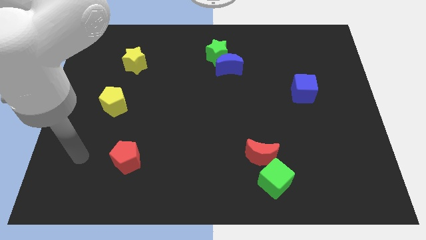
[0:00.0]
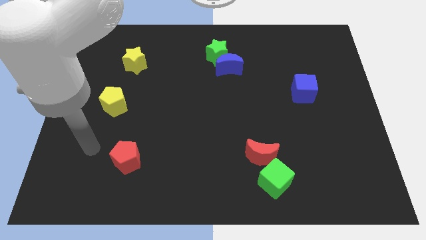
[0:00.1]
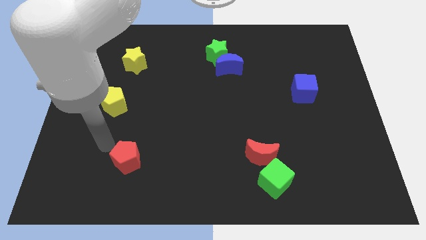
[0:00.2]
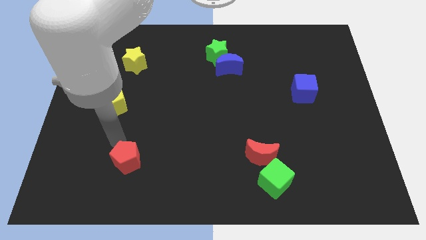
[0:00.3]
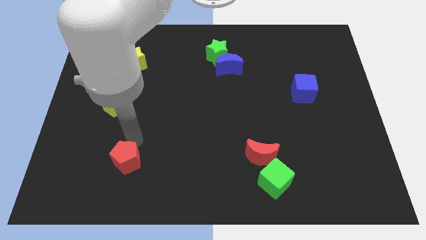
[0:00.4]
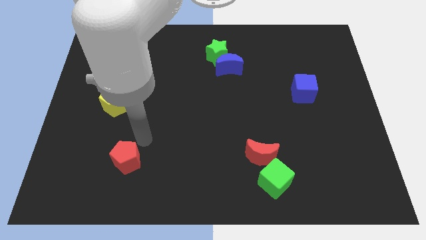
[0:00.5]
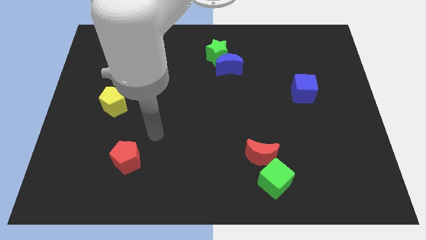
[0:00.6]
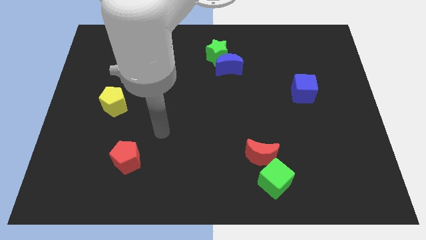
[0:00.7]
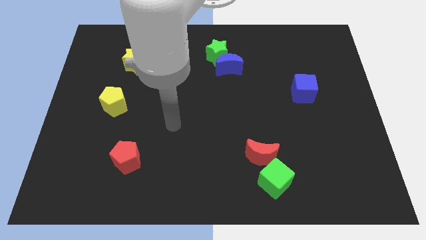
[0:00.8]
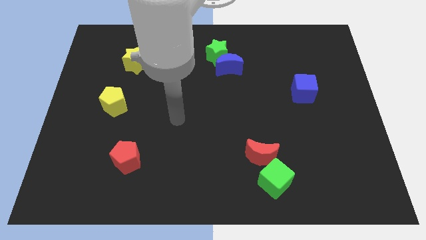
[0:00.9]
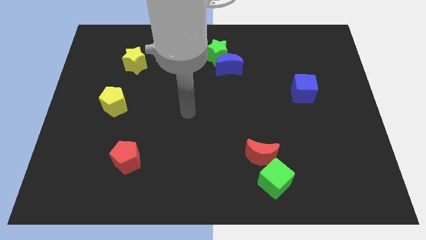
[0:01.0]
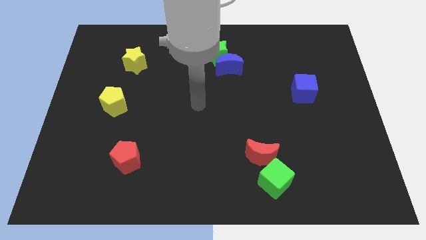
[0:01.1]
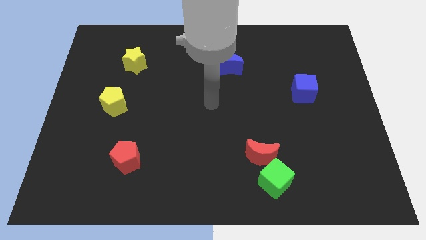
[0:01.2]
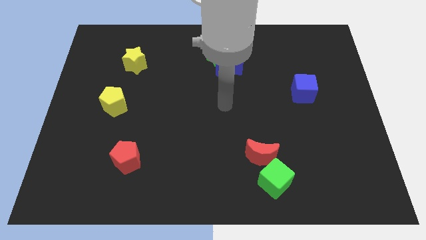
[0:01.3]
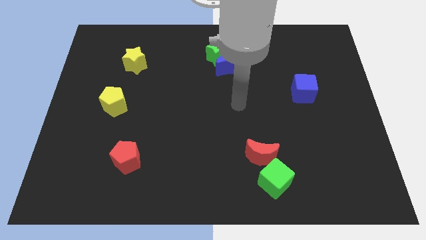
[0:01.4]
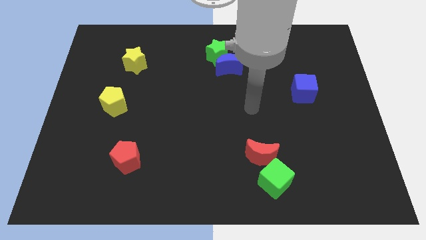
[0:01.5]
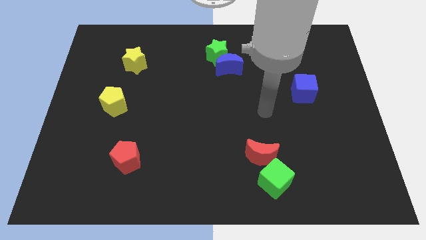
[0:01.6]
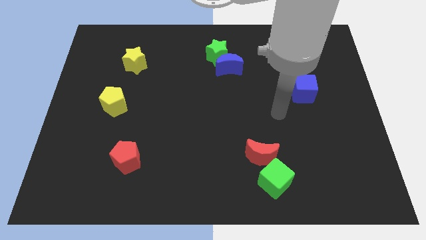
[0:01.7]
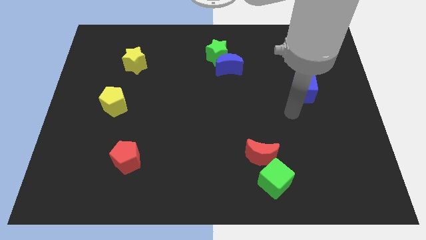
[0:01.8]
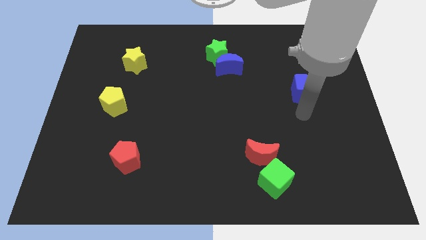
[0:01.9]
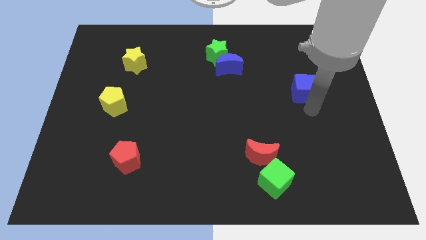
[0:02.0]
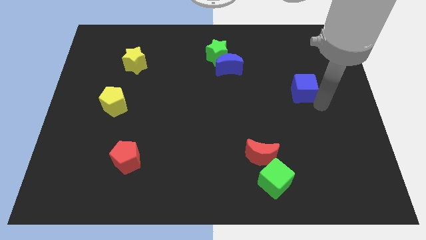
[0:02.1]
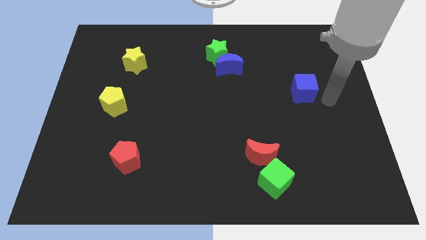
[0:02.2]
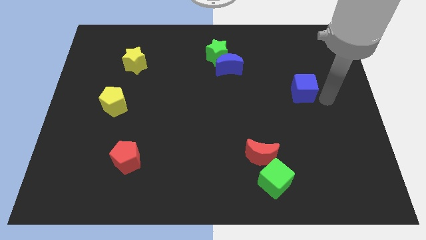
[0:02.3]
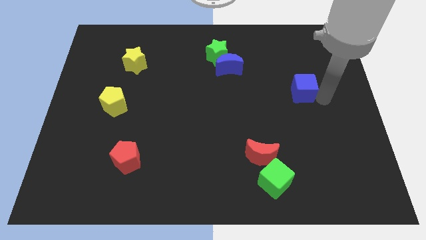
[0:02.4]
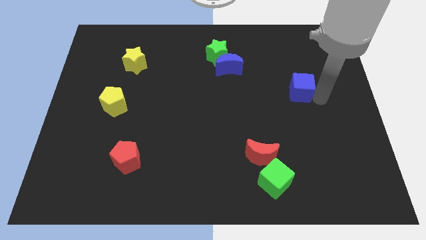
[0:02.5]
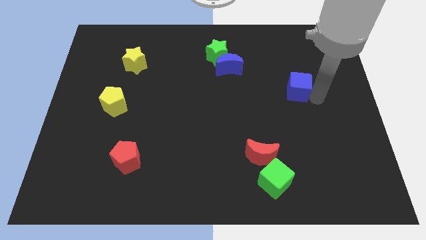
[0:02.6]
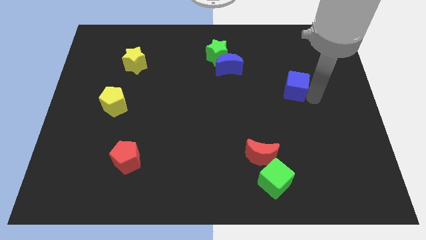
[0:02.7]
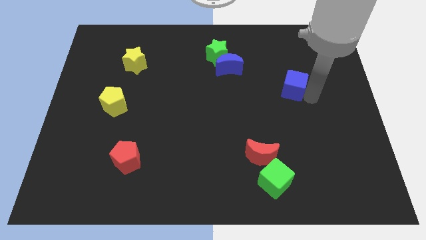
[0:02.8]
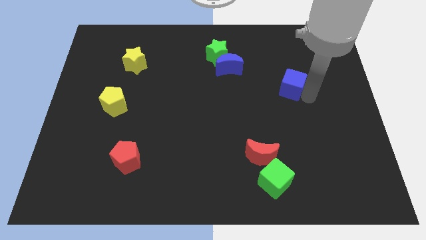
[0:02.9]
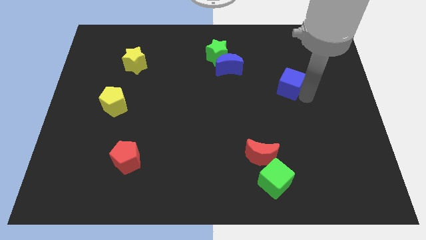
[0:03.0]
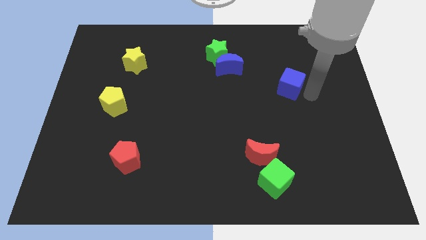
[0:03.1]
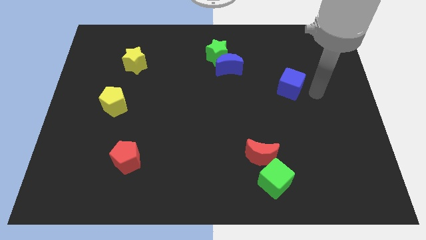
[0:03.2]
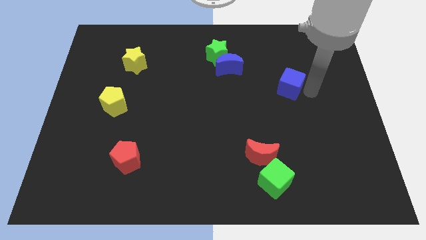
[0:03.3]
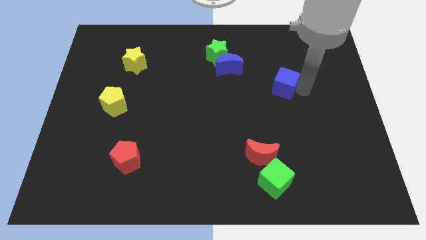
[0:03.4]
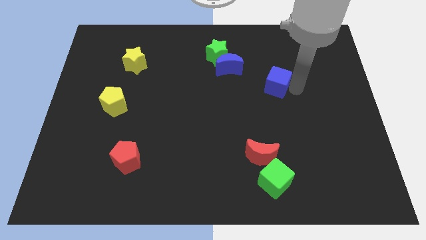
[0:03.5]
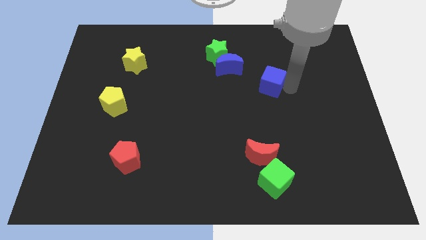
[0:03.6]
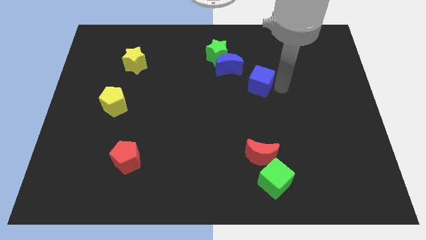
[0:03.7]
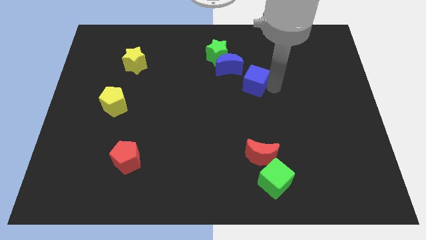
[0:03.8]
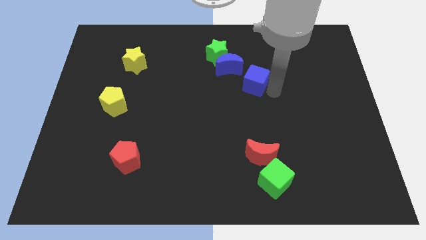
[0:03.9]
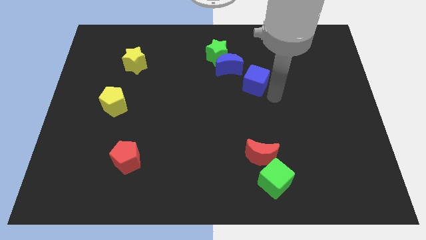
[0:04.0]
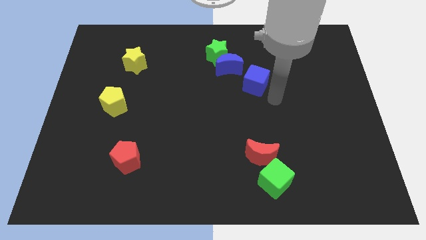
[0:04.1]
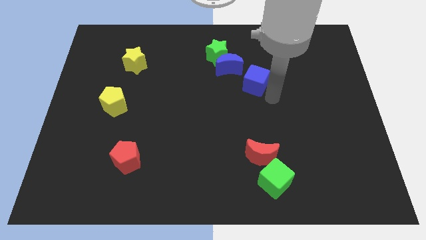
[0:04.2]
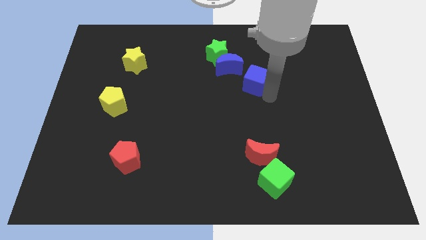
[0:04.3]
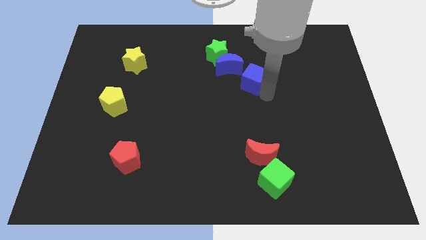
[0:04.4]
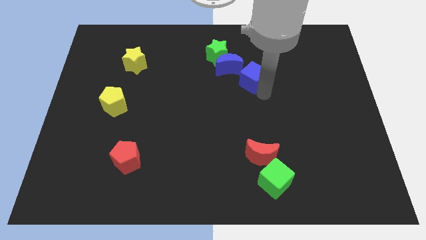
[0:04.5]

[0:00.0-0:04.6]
put the blue cube to the bottom right of the green star

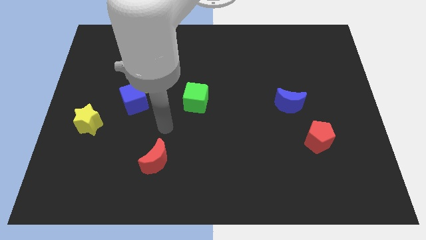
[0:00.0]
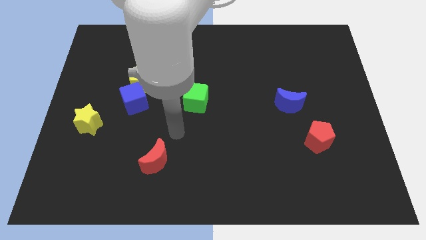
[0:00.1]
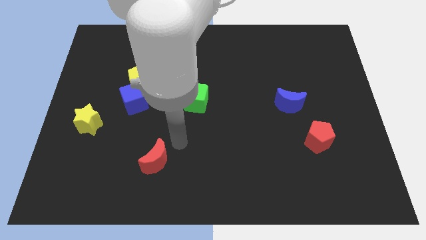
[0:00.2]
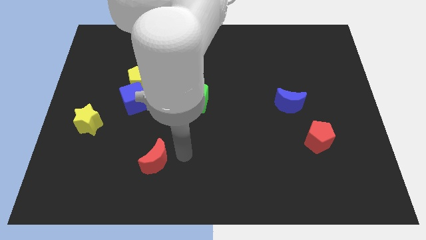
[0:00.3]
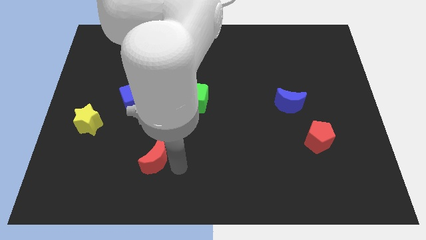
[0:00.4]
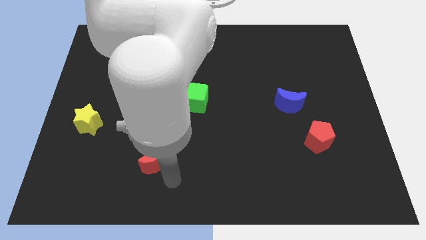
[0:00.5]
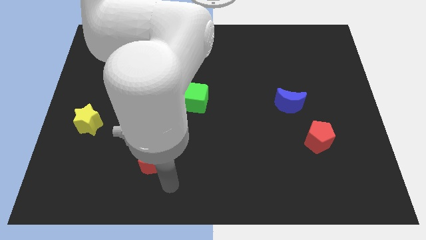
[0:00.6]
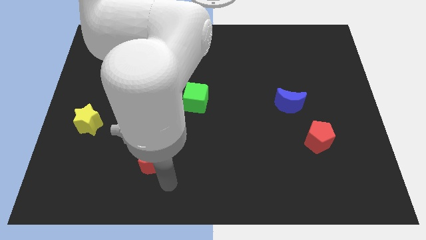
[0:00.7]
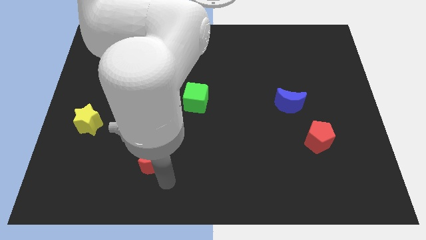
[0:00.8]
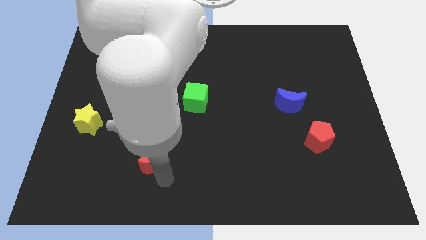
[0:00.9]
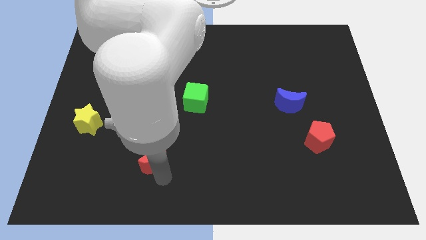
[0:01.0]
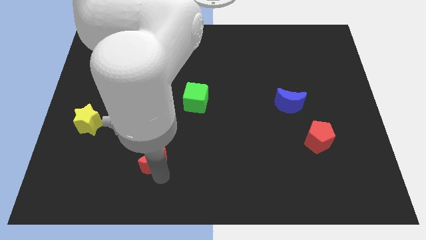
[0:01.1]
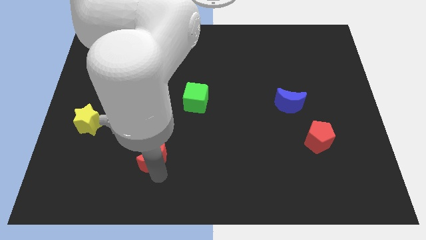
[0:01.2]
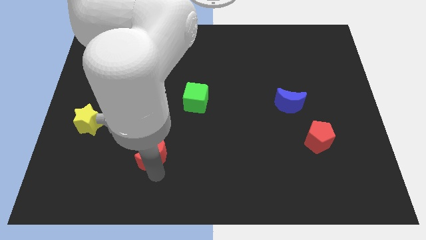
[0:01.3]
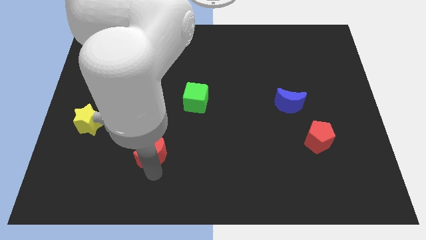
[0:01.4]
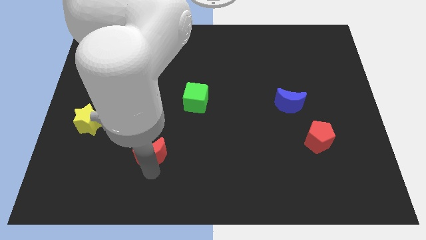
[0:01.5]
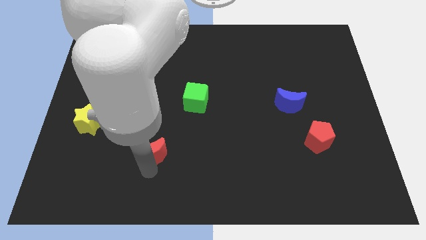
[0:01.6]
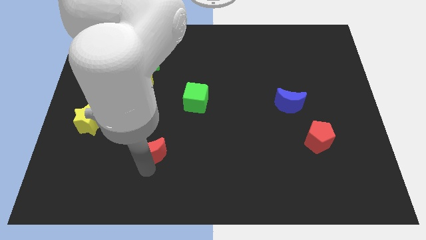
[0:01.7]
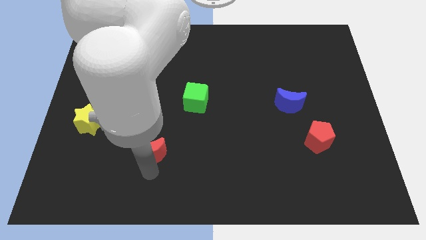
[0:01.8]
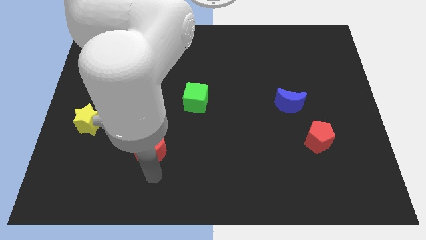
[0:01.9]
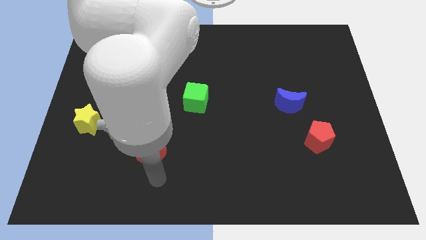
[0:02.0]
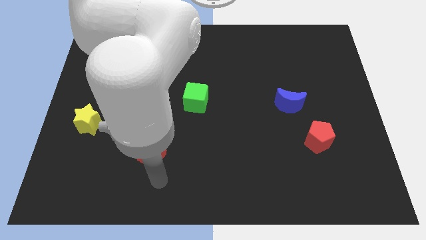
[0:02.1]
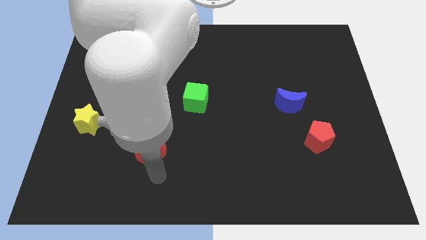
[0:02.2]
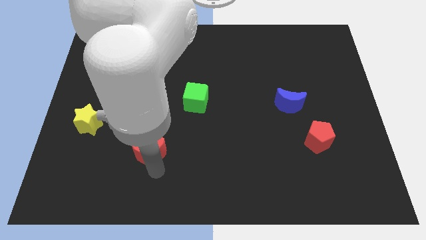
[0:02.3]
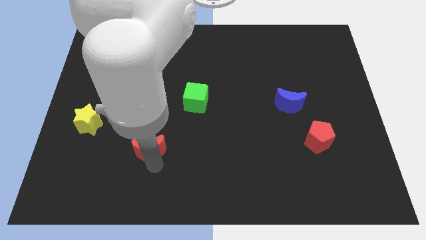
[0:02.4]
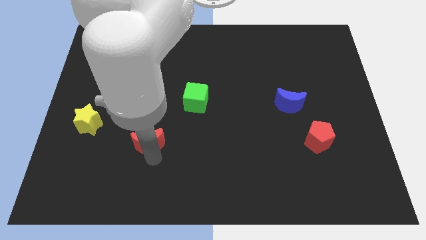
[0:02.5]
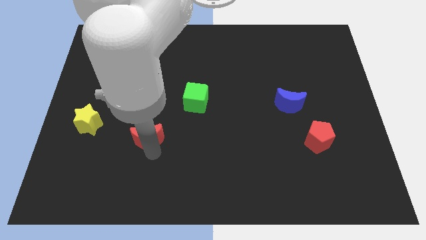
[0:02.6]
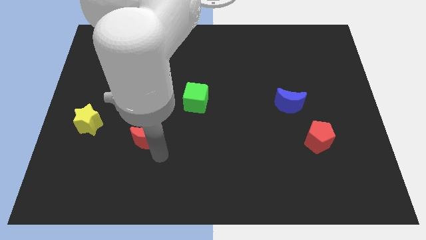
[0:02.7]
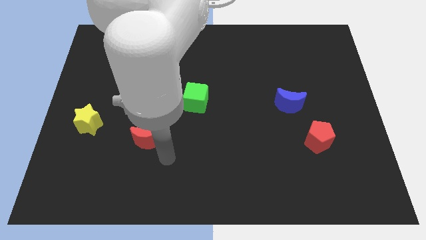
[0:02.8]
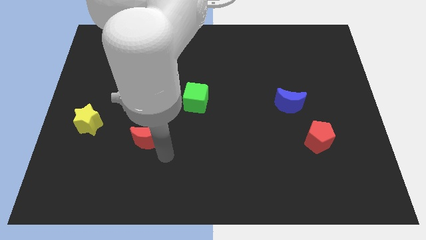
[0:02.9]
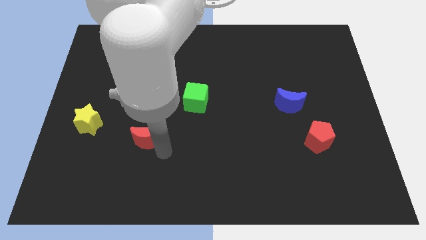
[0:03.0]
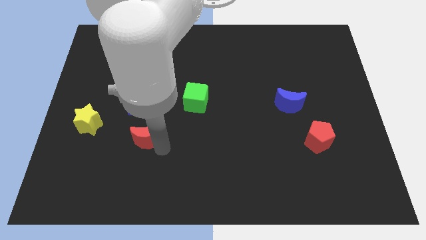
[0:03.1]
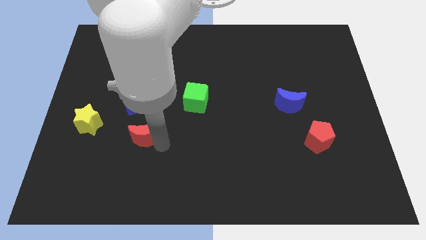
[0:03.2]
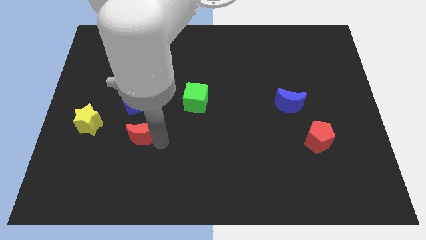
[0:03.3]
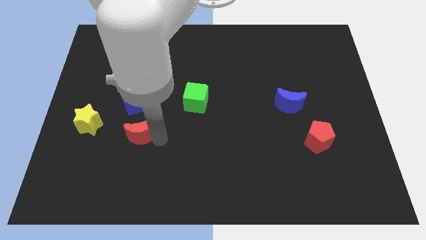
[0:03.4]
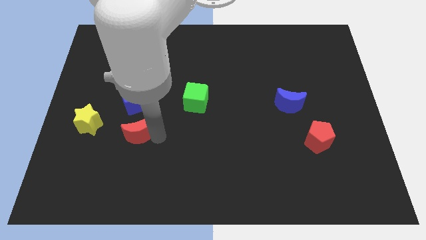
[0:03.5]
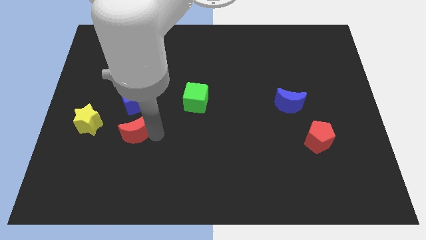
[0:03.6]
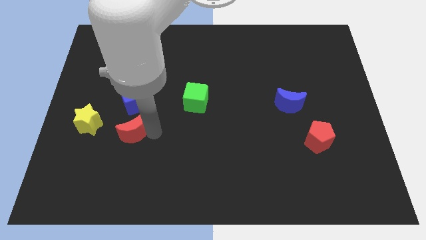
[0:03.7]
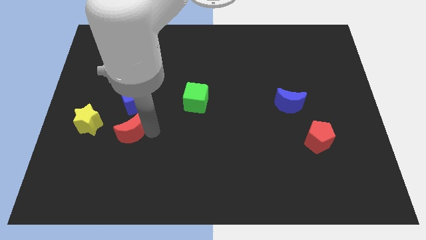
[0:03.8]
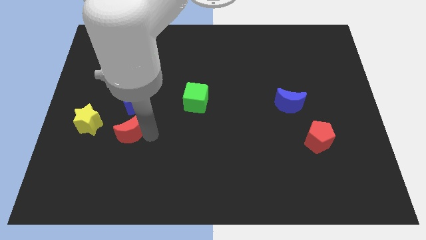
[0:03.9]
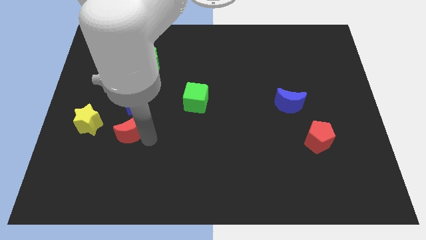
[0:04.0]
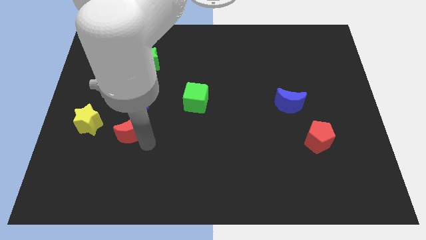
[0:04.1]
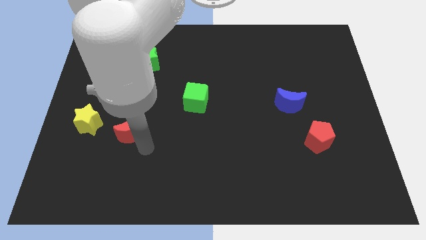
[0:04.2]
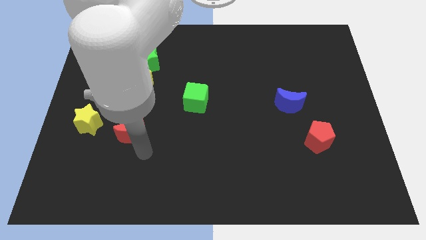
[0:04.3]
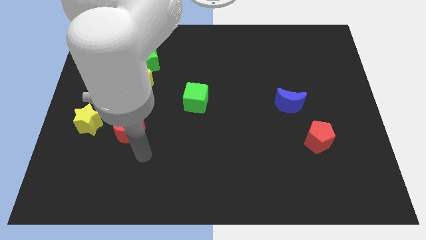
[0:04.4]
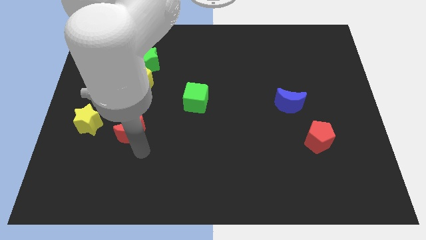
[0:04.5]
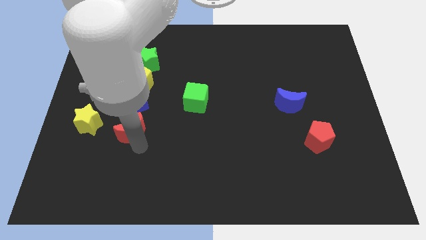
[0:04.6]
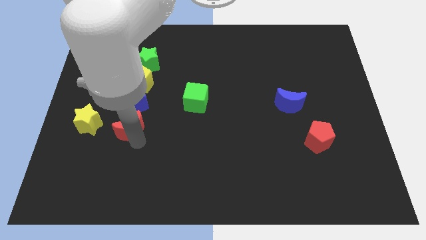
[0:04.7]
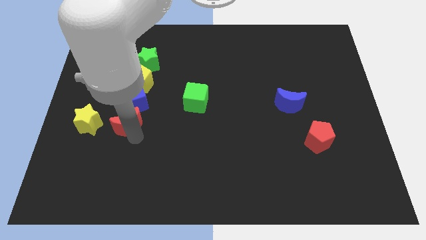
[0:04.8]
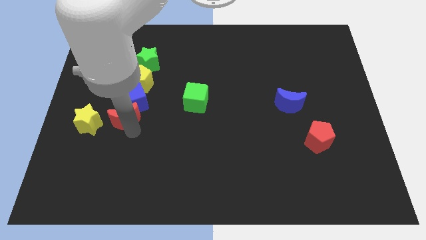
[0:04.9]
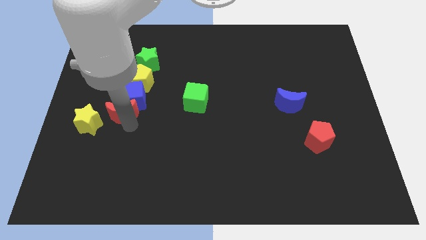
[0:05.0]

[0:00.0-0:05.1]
push the red moon to the top right side of the yellow star
